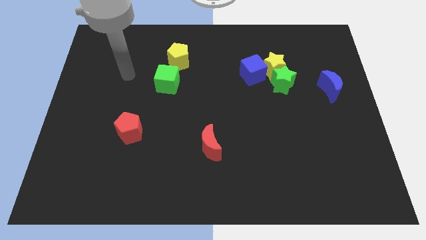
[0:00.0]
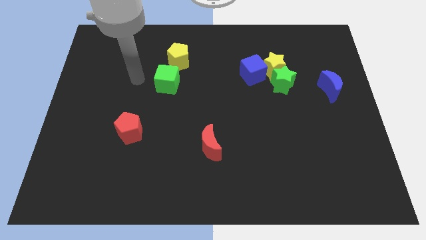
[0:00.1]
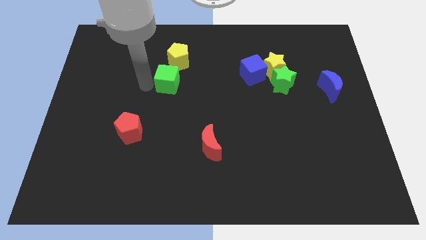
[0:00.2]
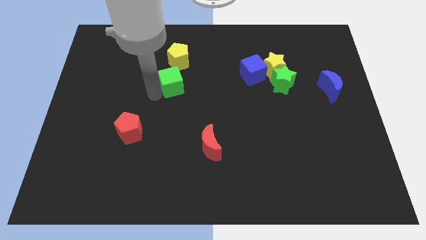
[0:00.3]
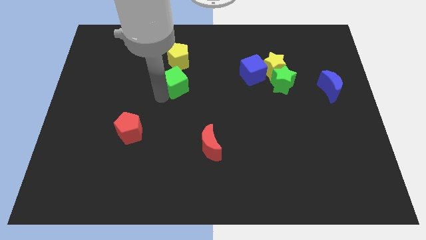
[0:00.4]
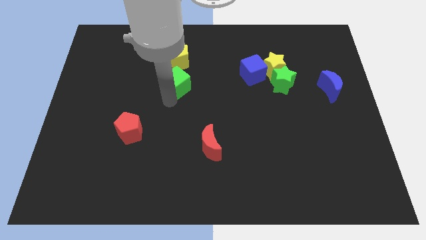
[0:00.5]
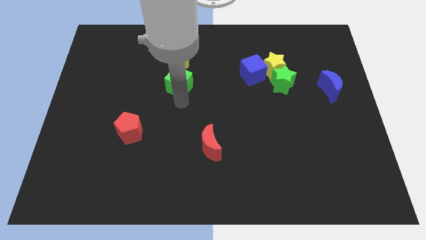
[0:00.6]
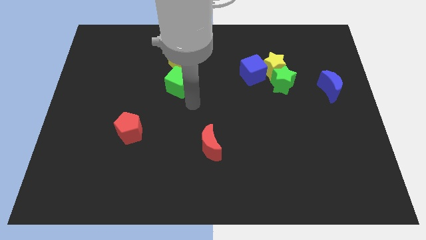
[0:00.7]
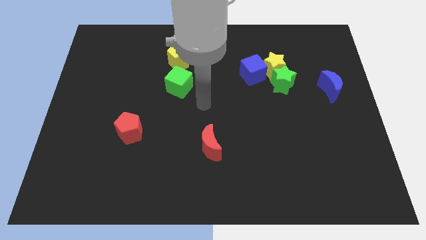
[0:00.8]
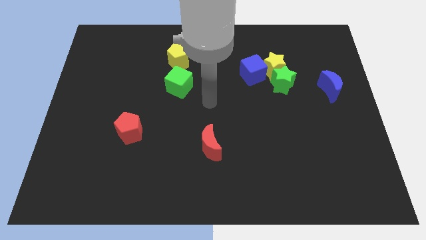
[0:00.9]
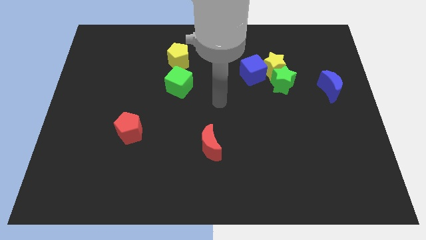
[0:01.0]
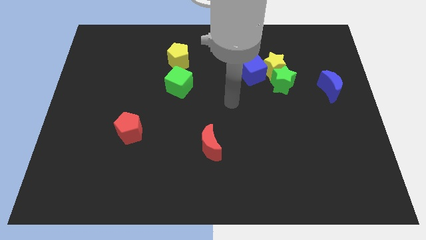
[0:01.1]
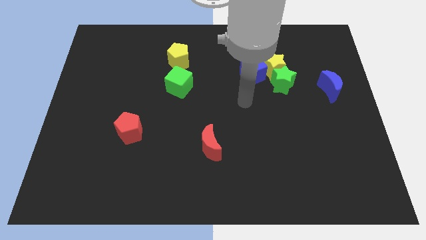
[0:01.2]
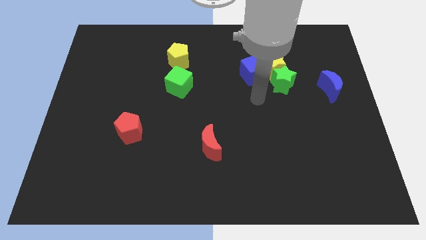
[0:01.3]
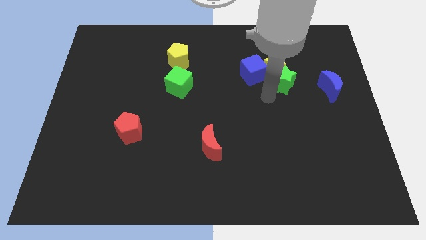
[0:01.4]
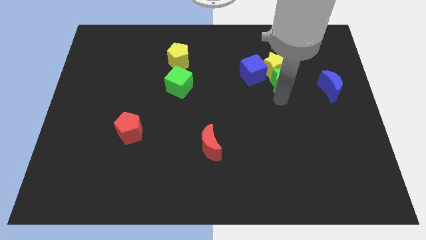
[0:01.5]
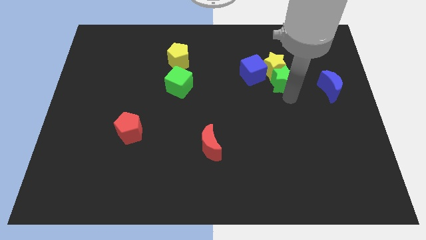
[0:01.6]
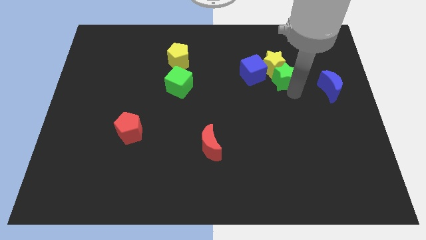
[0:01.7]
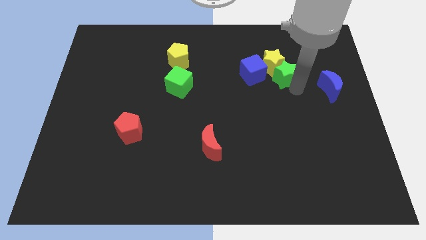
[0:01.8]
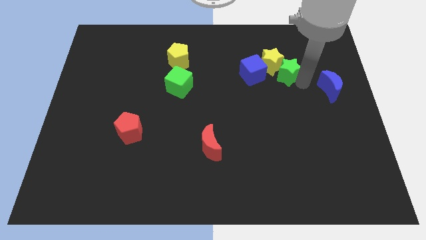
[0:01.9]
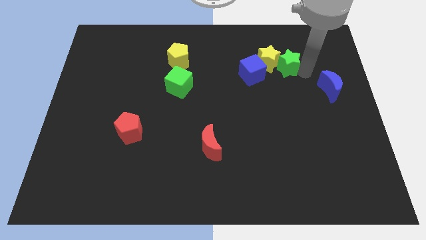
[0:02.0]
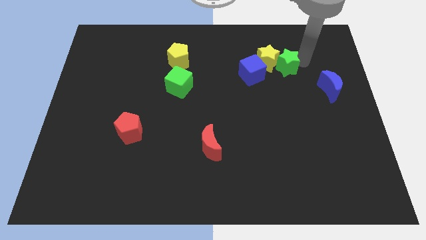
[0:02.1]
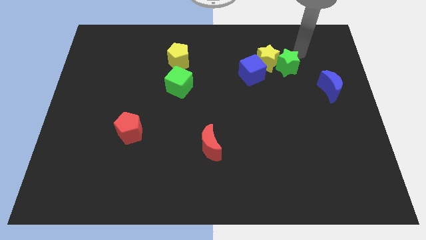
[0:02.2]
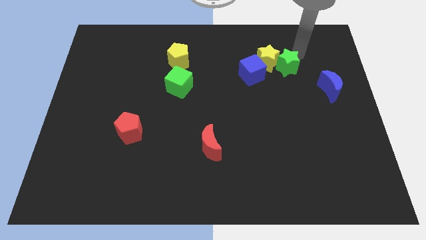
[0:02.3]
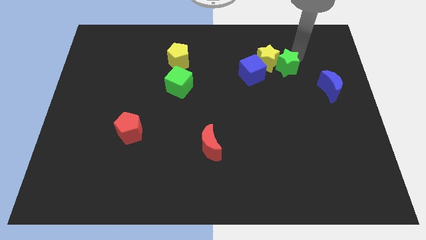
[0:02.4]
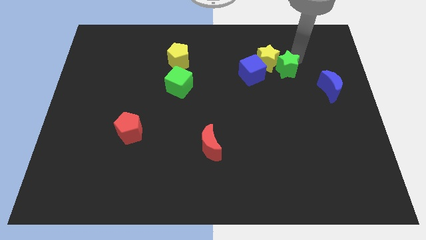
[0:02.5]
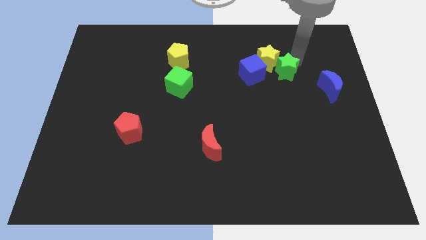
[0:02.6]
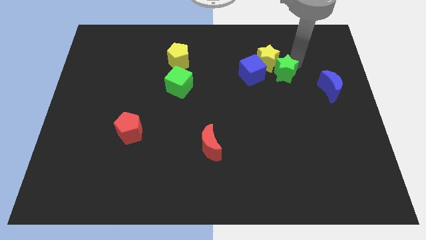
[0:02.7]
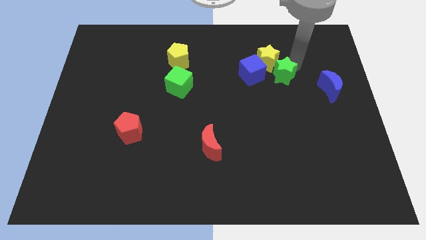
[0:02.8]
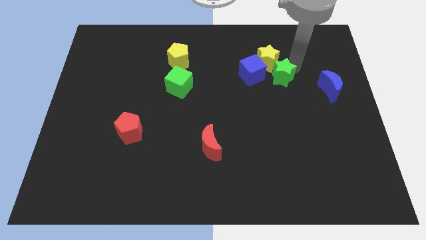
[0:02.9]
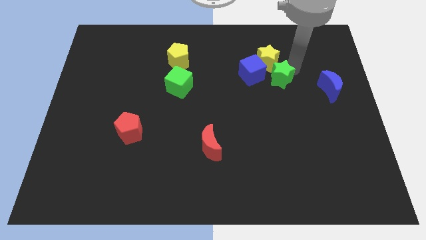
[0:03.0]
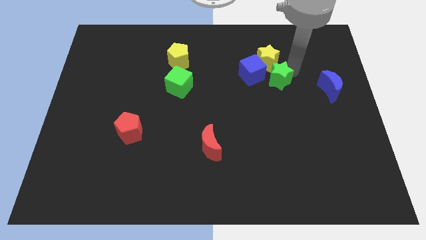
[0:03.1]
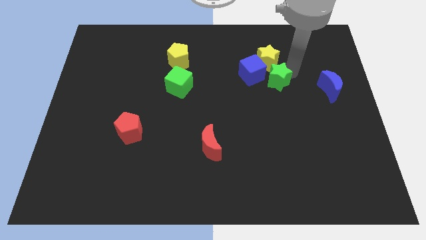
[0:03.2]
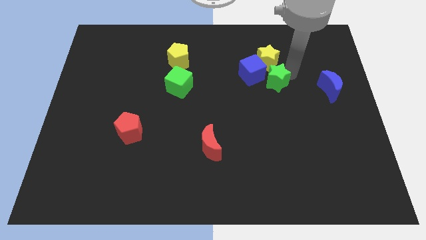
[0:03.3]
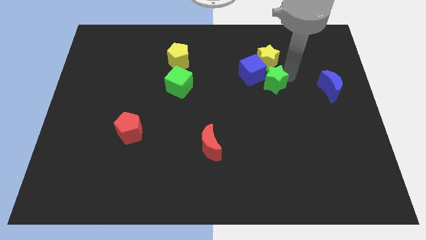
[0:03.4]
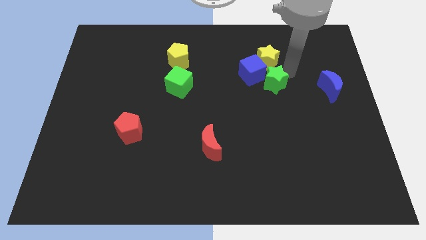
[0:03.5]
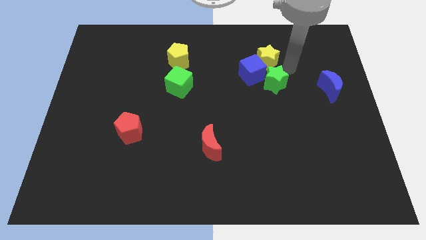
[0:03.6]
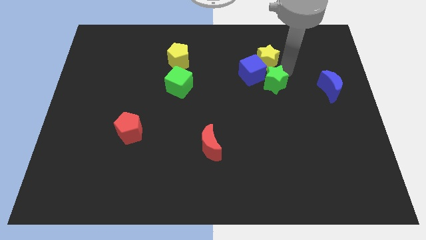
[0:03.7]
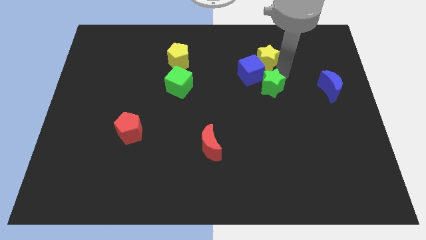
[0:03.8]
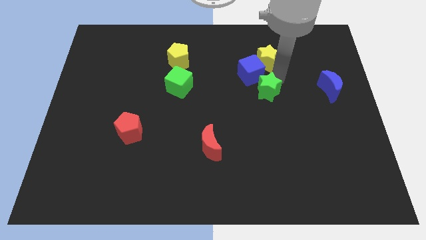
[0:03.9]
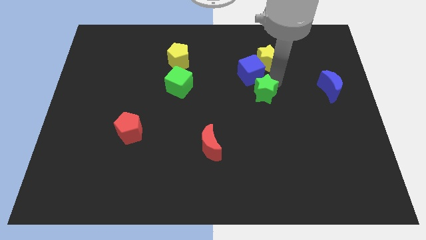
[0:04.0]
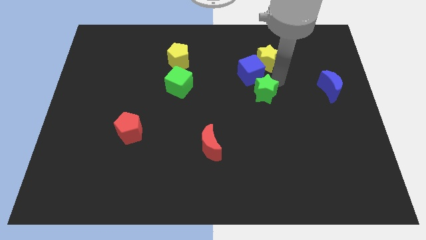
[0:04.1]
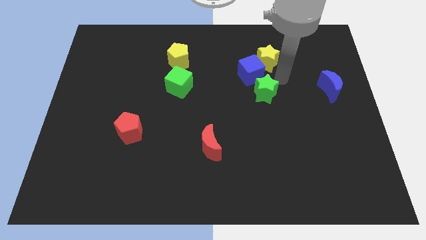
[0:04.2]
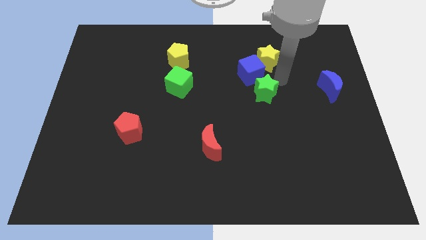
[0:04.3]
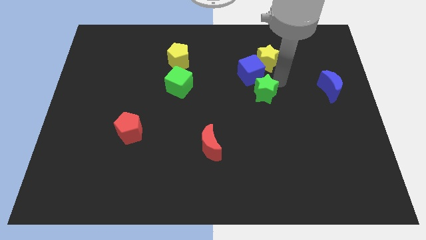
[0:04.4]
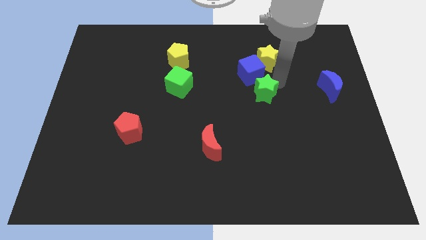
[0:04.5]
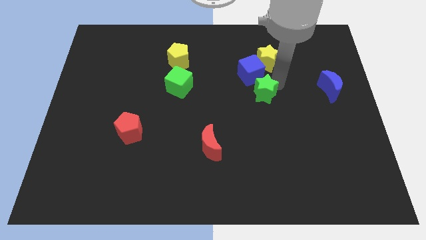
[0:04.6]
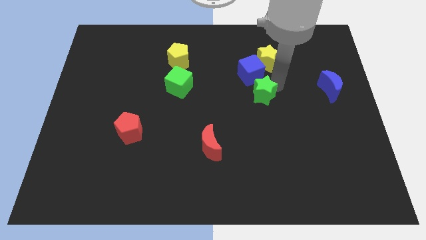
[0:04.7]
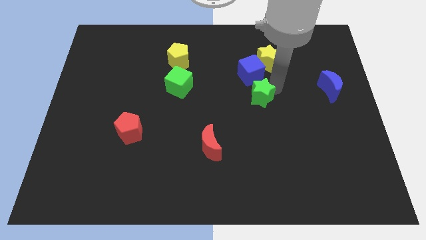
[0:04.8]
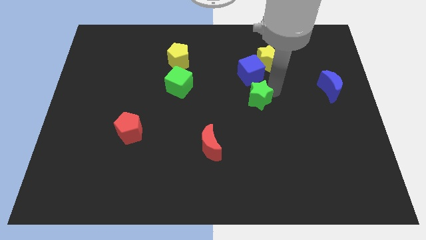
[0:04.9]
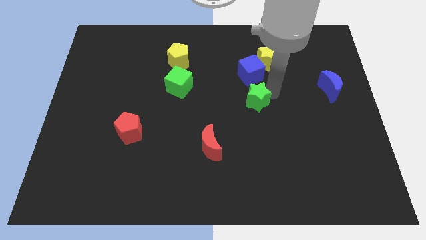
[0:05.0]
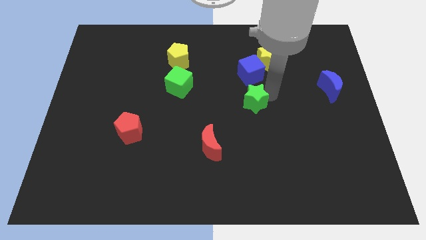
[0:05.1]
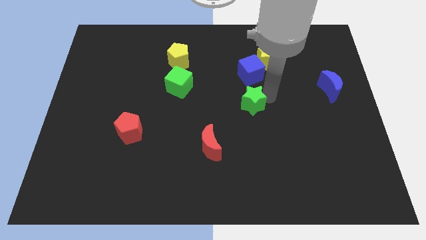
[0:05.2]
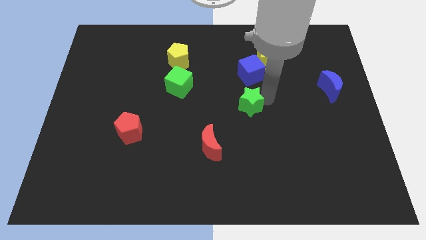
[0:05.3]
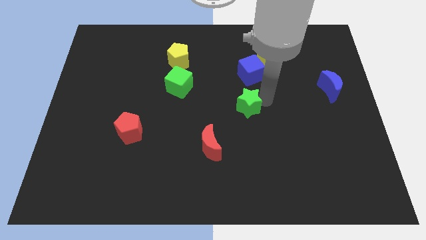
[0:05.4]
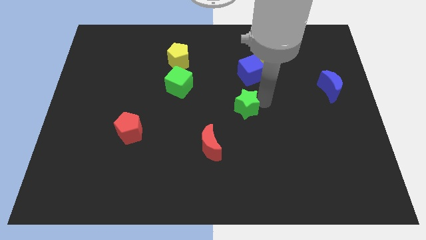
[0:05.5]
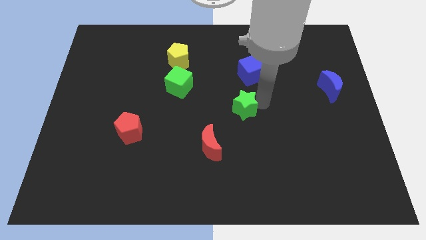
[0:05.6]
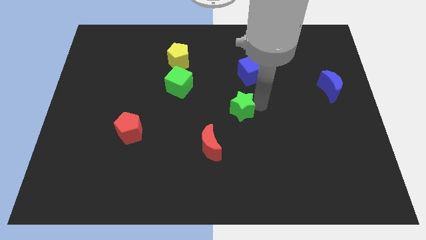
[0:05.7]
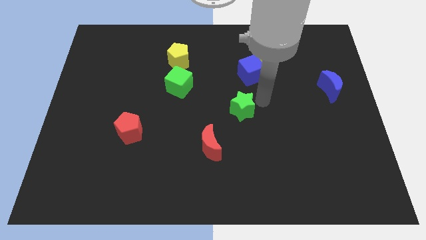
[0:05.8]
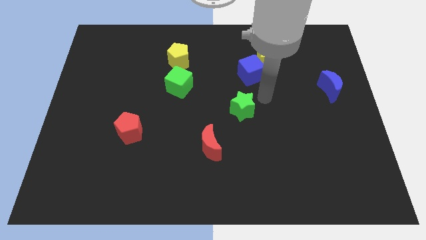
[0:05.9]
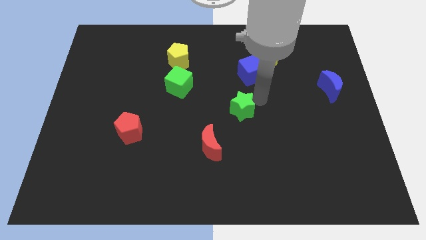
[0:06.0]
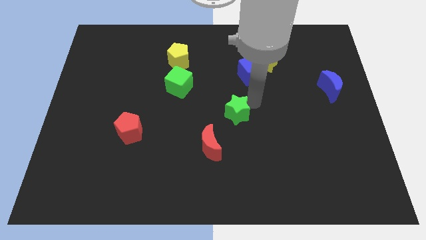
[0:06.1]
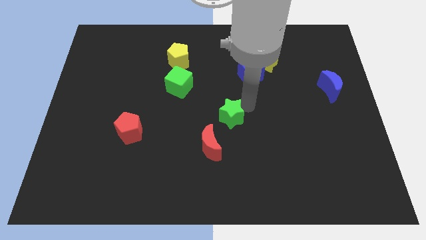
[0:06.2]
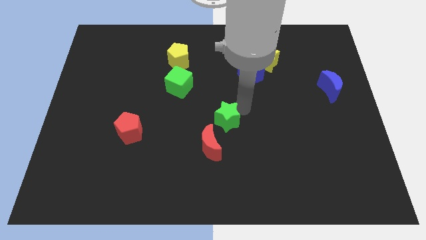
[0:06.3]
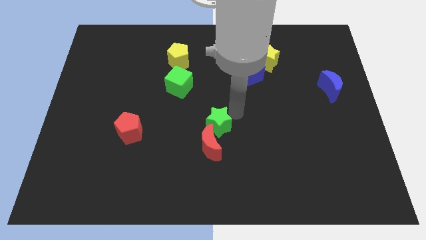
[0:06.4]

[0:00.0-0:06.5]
move the green star down and left

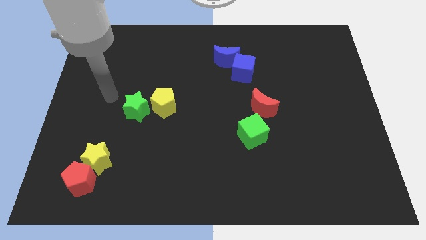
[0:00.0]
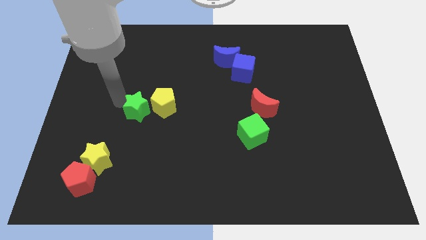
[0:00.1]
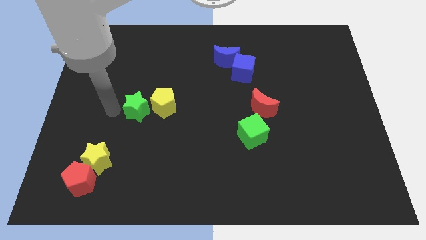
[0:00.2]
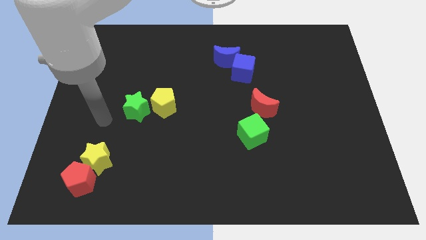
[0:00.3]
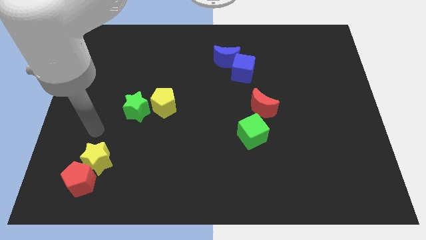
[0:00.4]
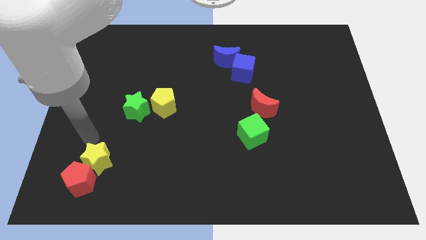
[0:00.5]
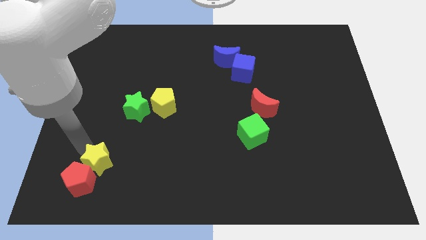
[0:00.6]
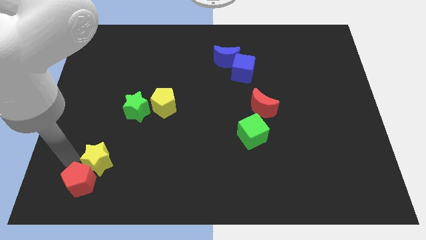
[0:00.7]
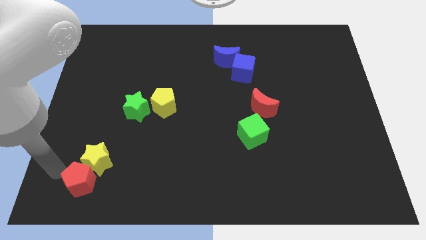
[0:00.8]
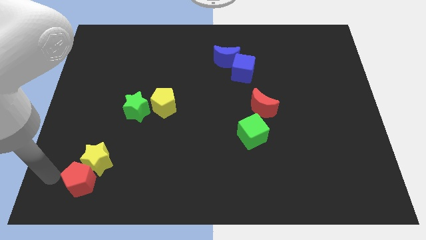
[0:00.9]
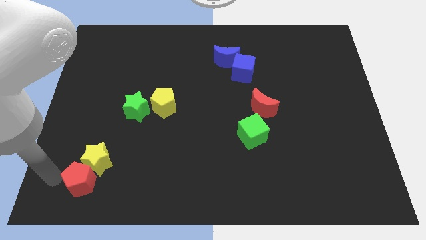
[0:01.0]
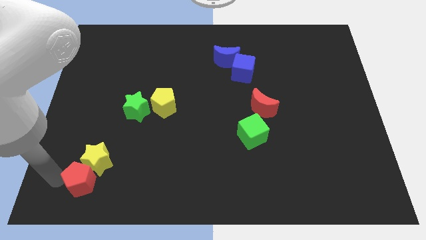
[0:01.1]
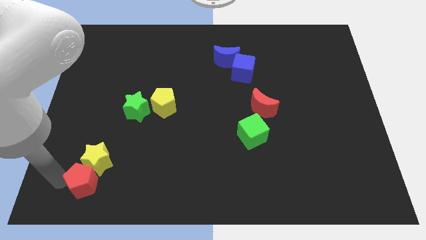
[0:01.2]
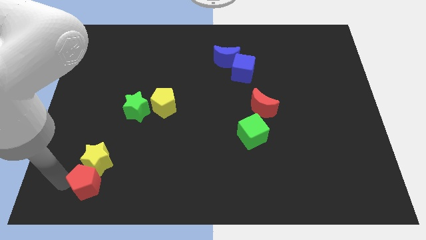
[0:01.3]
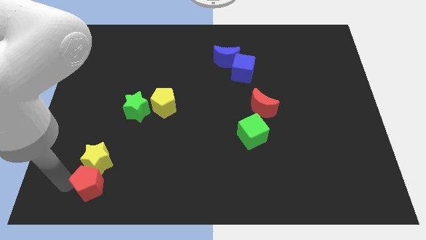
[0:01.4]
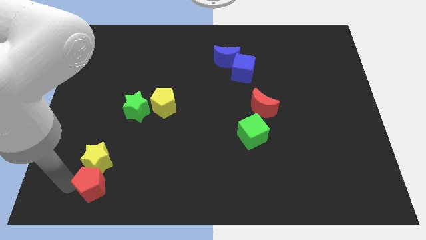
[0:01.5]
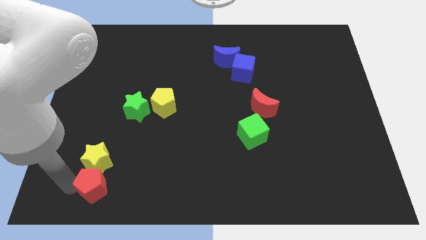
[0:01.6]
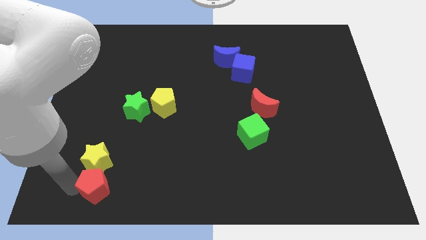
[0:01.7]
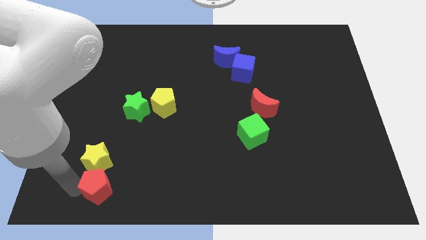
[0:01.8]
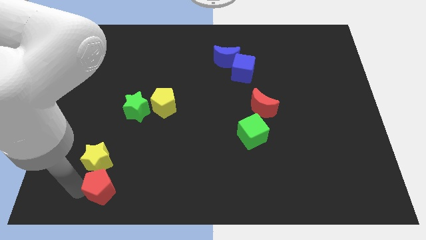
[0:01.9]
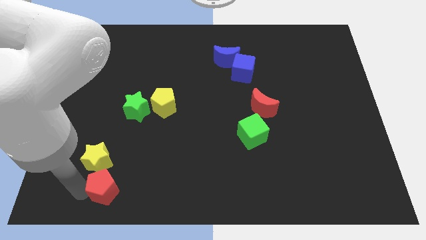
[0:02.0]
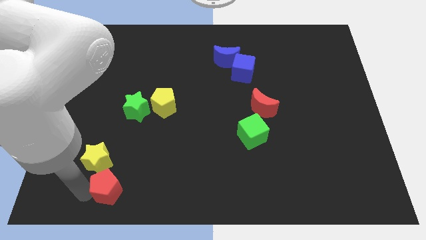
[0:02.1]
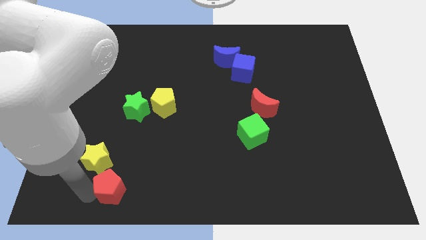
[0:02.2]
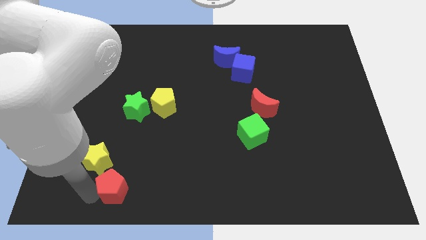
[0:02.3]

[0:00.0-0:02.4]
move the red pentagon a bit to the right
